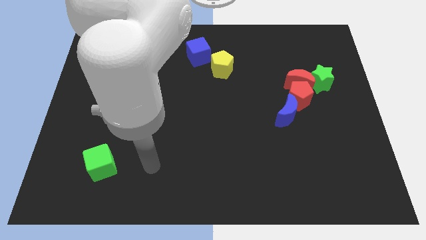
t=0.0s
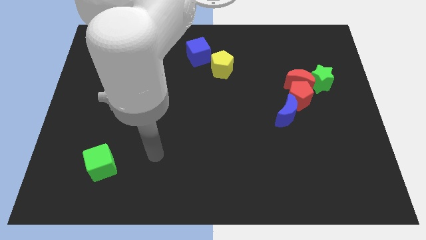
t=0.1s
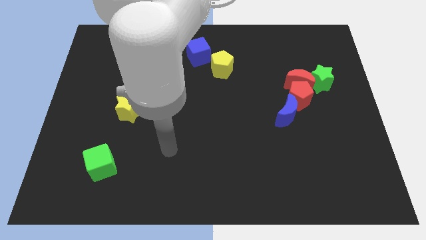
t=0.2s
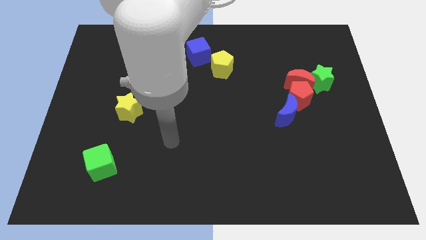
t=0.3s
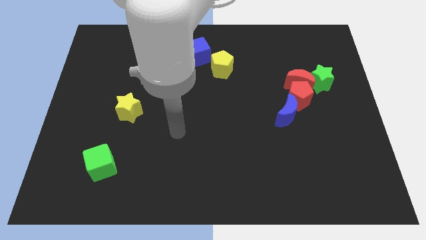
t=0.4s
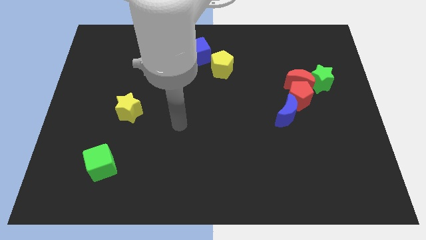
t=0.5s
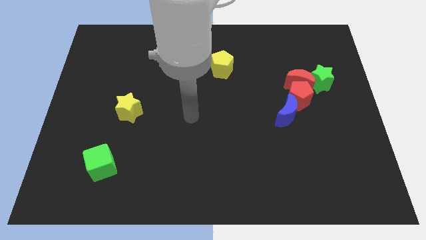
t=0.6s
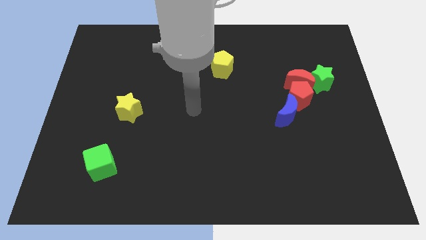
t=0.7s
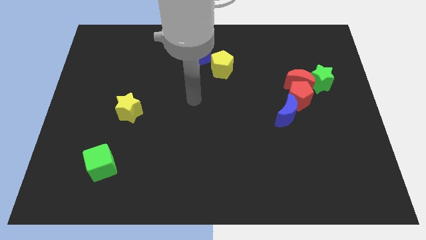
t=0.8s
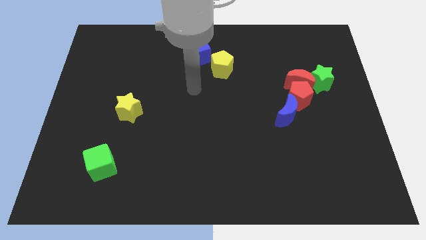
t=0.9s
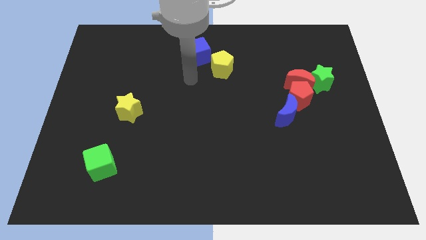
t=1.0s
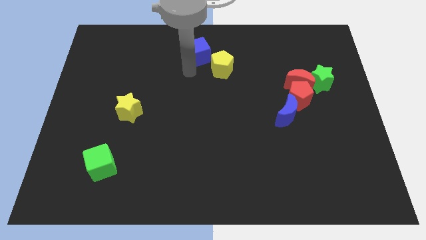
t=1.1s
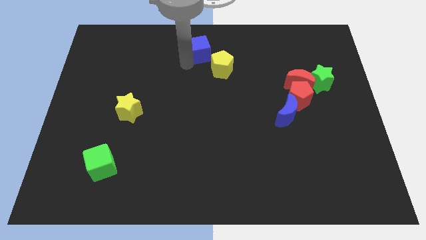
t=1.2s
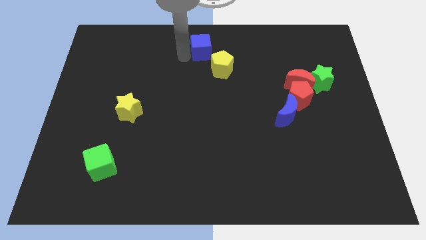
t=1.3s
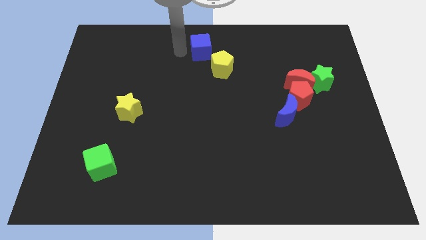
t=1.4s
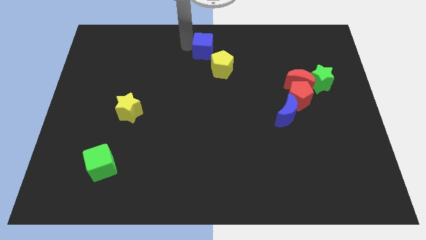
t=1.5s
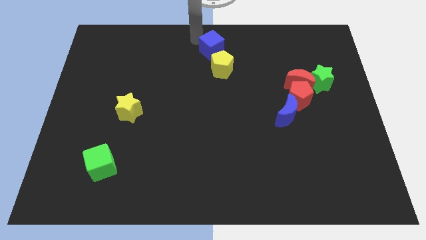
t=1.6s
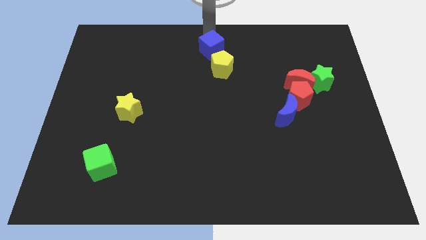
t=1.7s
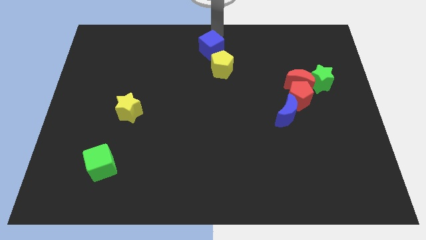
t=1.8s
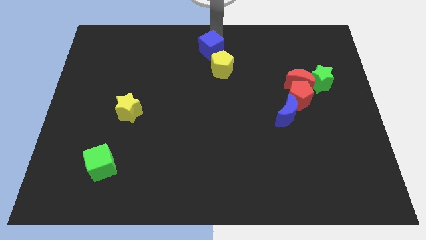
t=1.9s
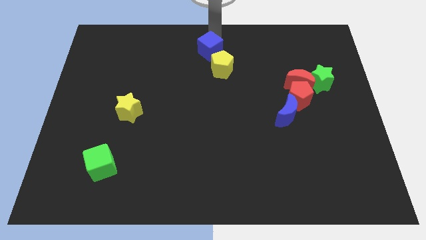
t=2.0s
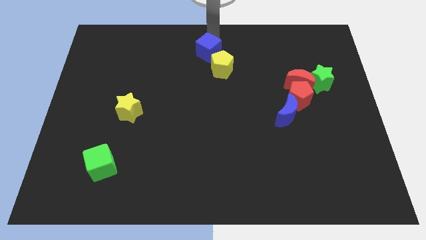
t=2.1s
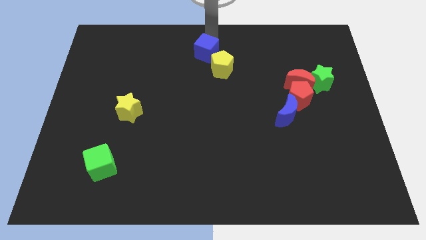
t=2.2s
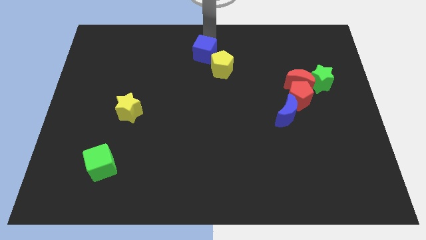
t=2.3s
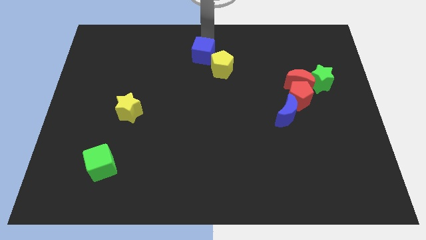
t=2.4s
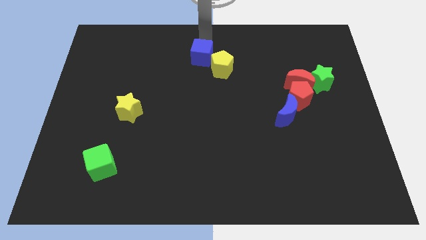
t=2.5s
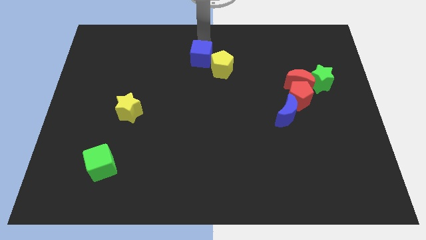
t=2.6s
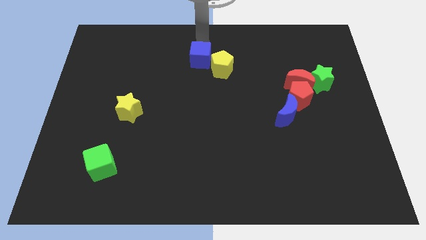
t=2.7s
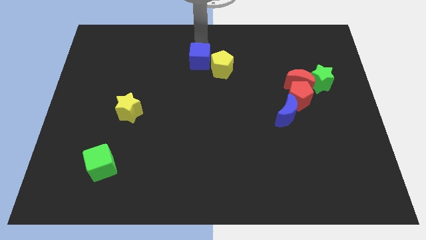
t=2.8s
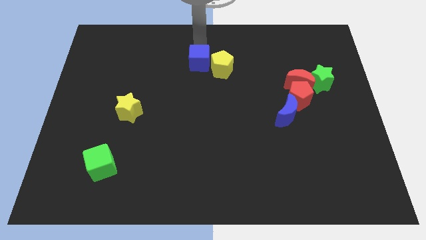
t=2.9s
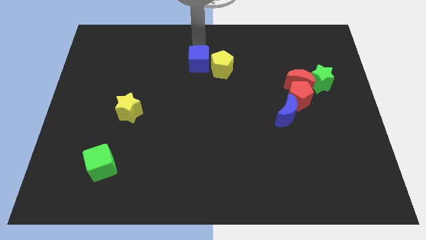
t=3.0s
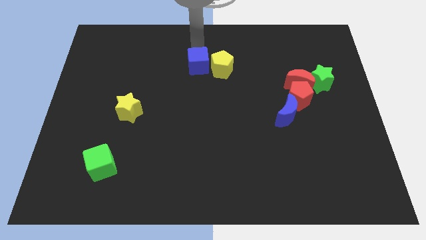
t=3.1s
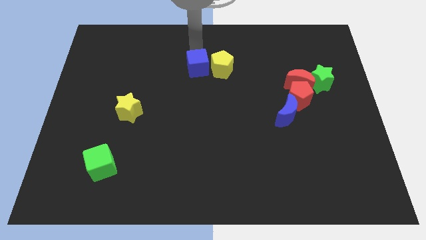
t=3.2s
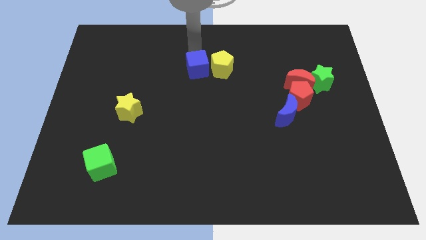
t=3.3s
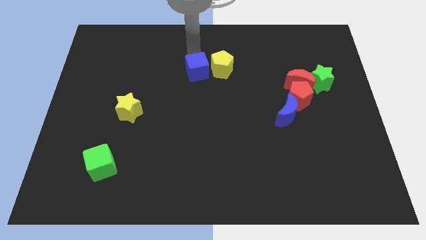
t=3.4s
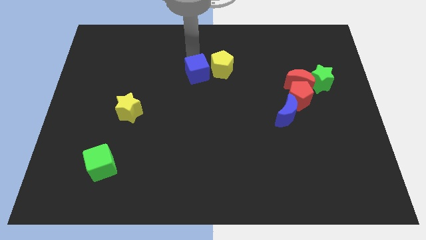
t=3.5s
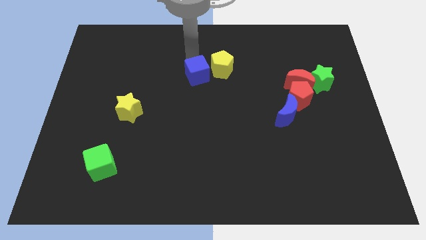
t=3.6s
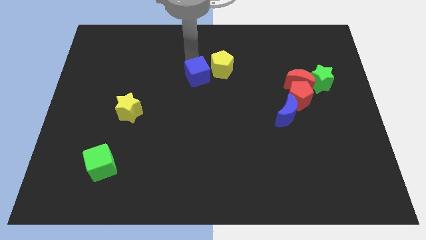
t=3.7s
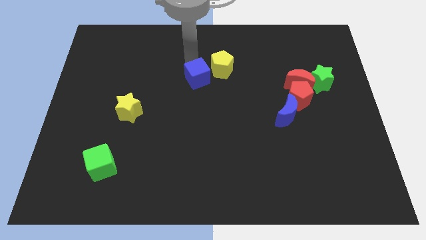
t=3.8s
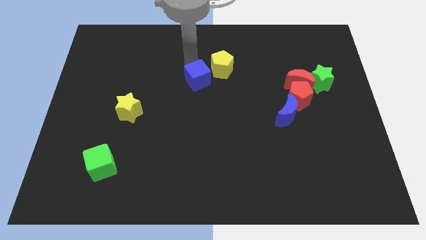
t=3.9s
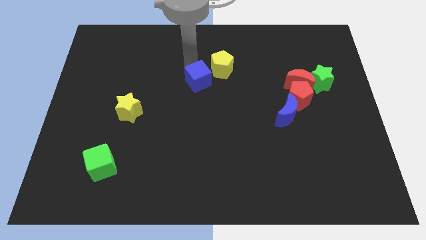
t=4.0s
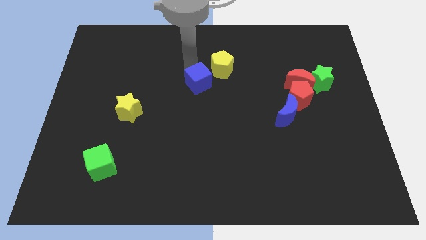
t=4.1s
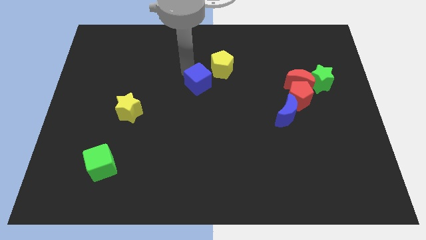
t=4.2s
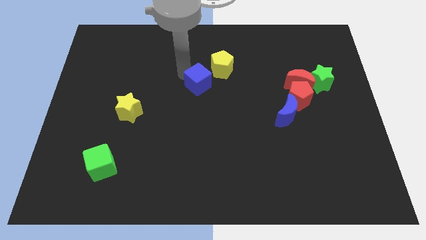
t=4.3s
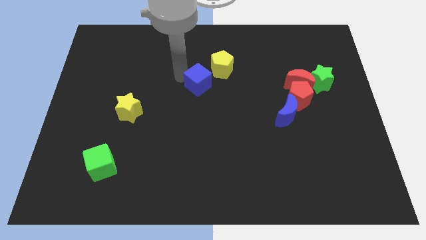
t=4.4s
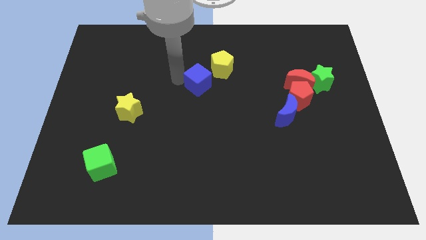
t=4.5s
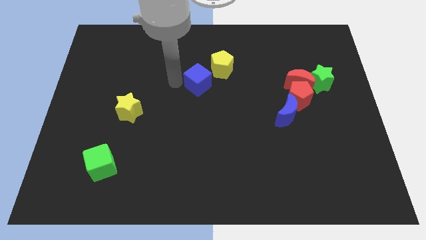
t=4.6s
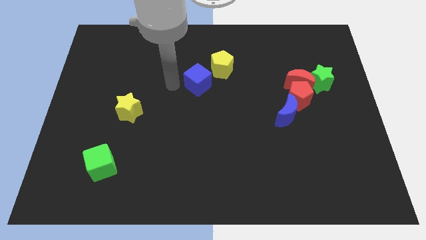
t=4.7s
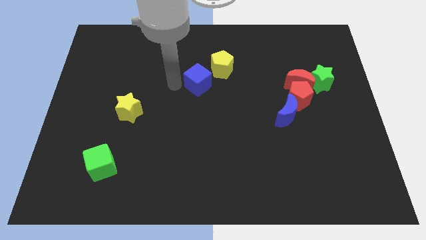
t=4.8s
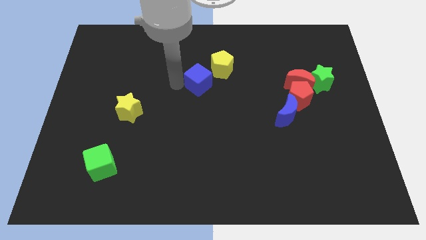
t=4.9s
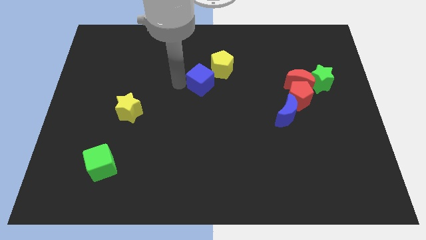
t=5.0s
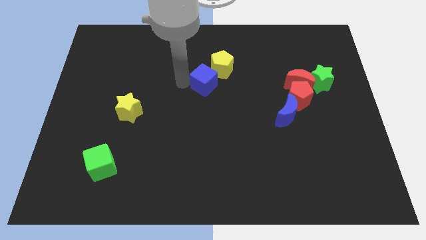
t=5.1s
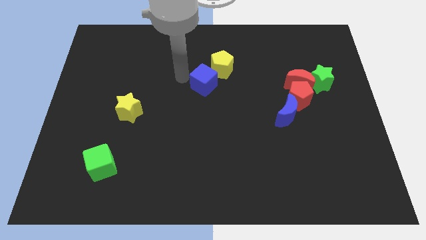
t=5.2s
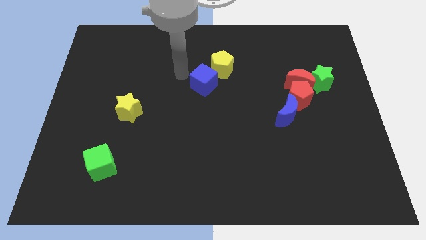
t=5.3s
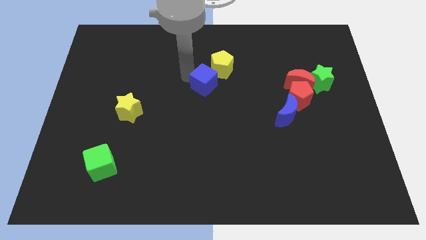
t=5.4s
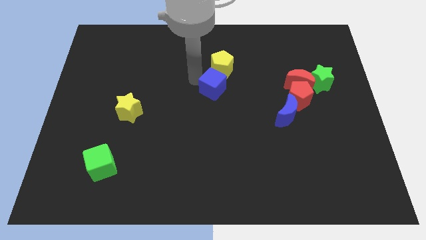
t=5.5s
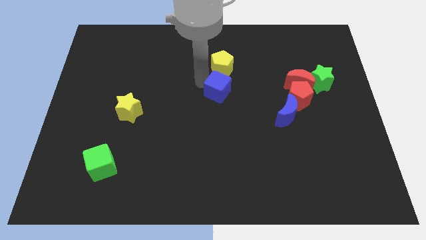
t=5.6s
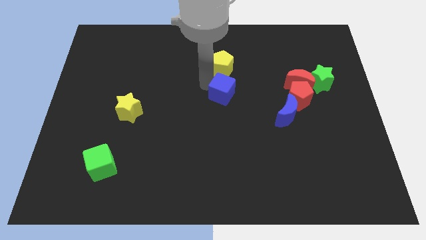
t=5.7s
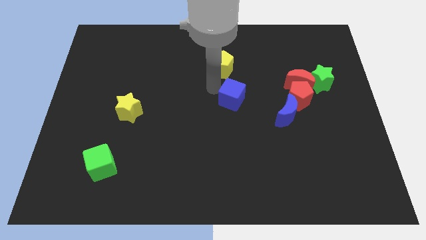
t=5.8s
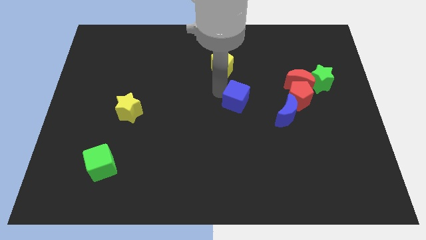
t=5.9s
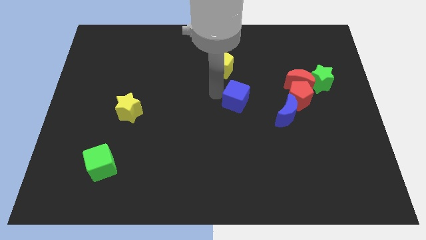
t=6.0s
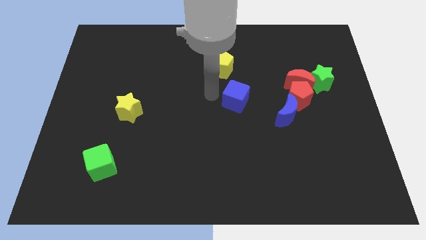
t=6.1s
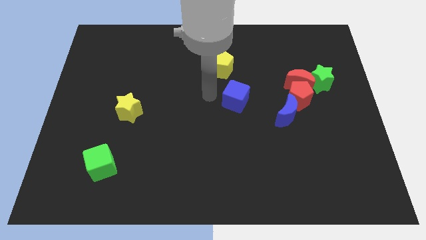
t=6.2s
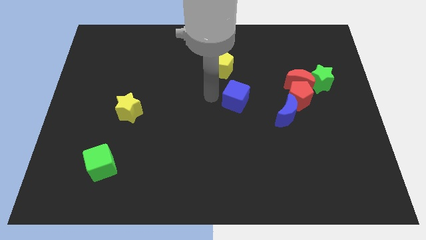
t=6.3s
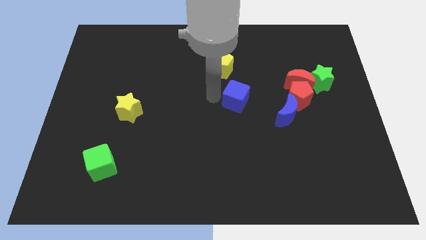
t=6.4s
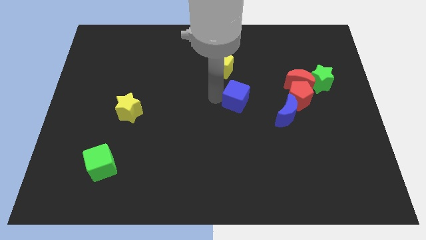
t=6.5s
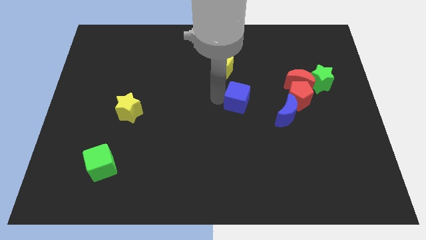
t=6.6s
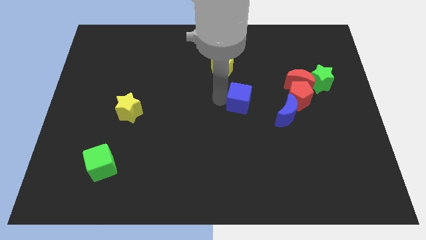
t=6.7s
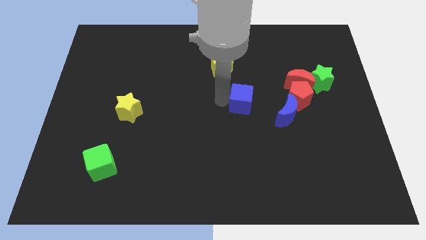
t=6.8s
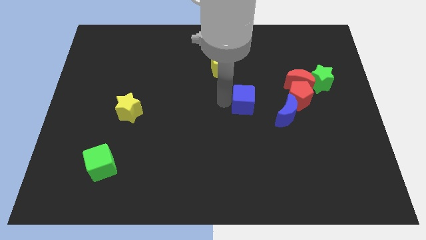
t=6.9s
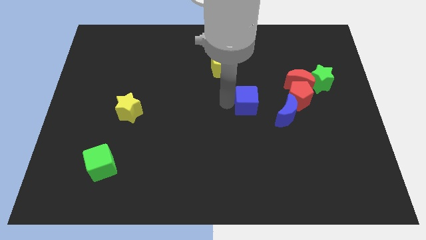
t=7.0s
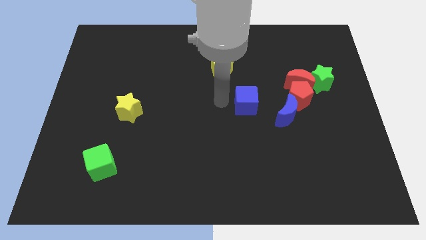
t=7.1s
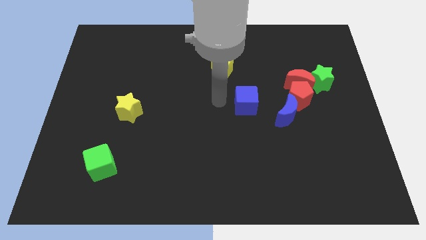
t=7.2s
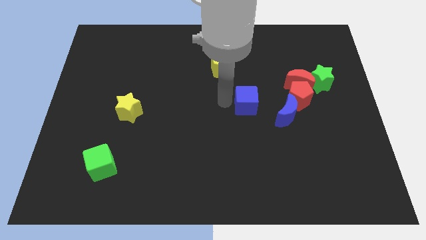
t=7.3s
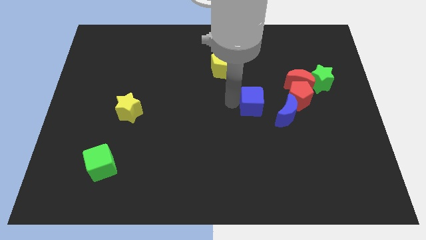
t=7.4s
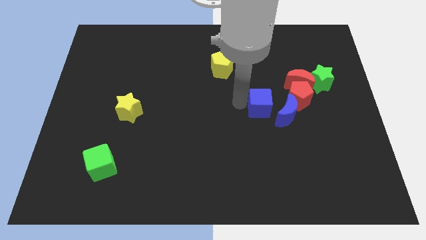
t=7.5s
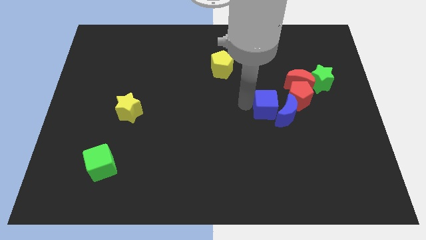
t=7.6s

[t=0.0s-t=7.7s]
put the blue cube close to the blue moon
